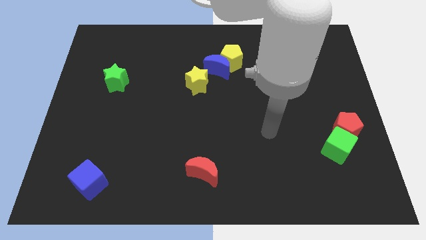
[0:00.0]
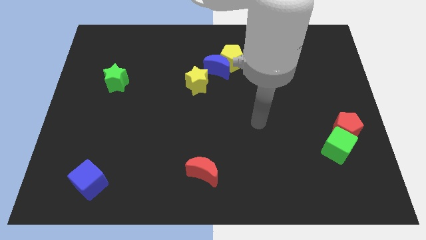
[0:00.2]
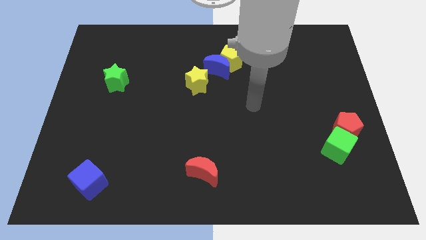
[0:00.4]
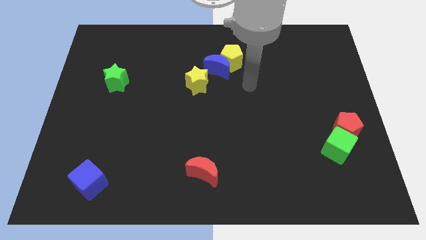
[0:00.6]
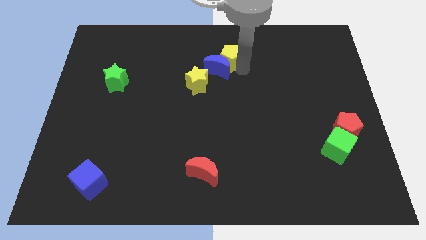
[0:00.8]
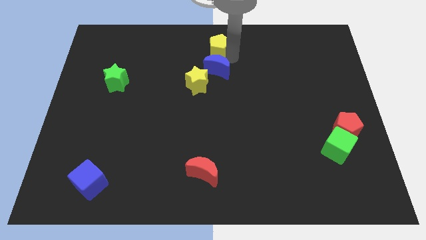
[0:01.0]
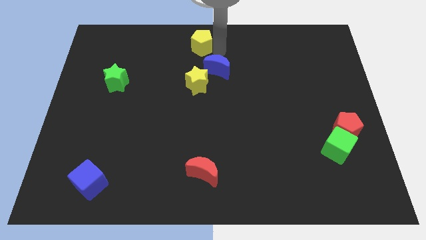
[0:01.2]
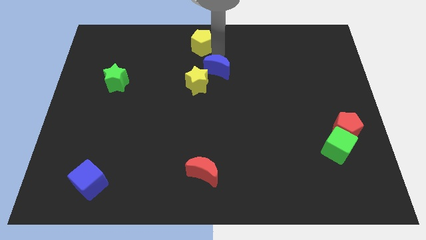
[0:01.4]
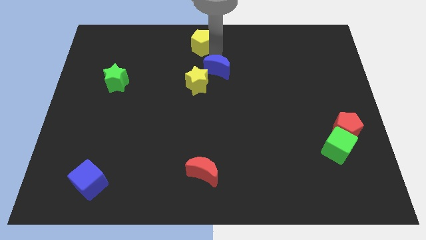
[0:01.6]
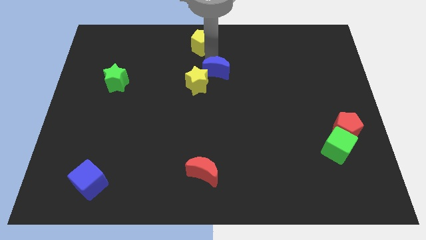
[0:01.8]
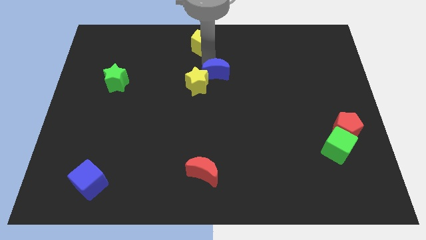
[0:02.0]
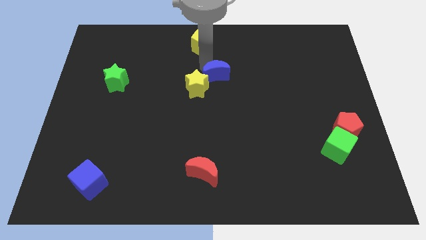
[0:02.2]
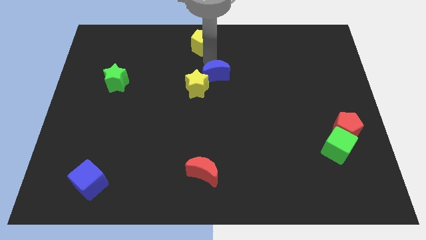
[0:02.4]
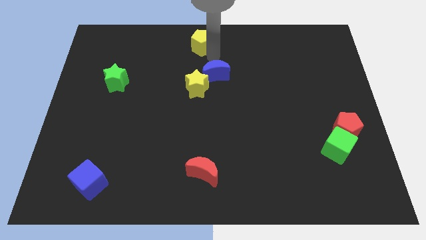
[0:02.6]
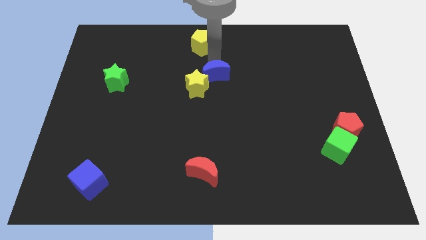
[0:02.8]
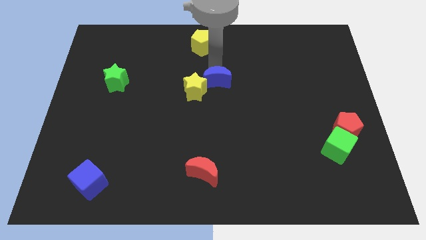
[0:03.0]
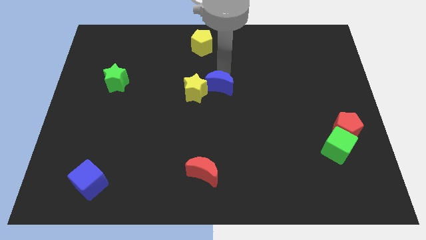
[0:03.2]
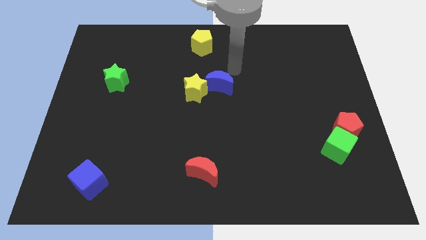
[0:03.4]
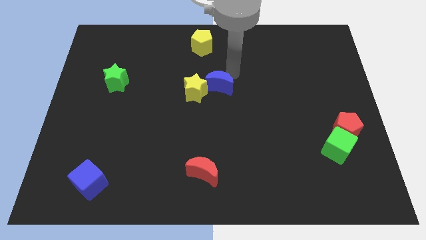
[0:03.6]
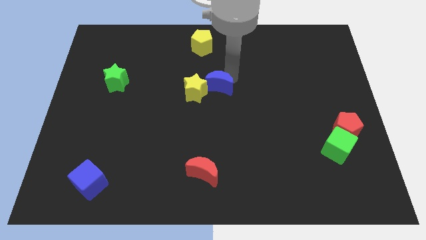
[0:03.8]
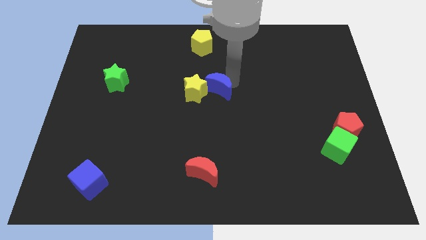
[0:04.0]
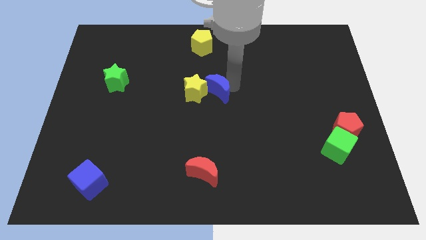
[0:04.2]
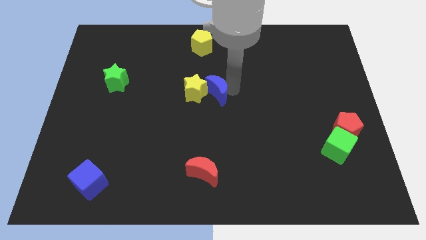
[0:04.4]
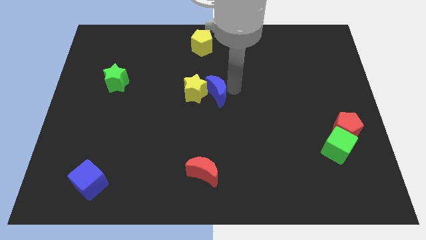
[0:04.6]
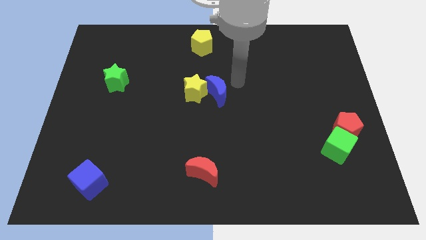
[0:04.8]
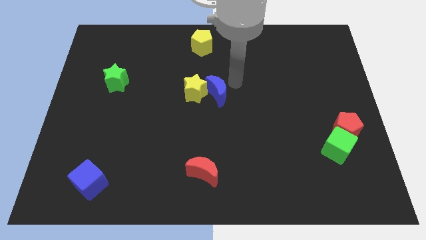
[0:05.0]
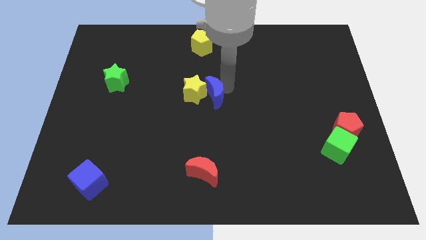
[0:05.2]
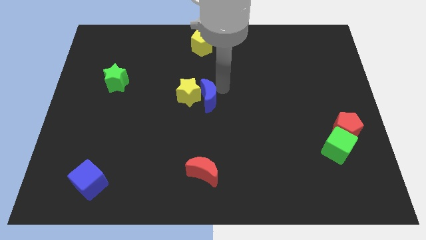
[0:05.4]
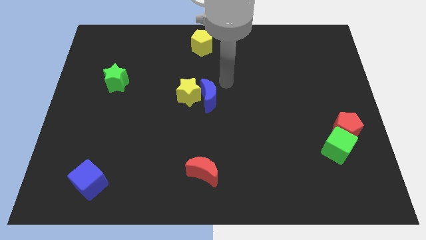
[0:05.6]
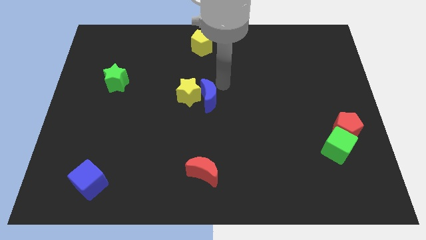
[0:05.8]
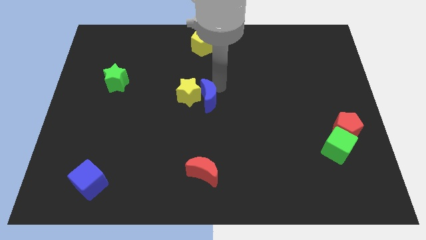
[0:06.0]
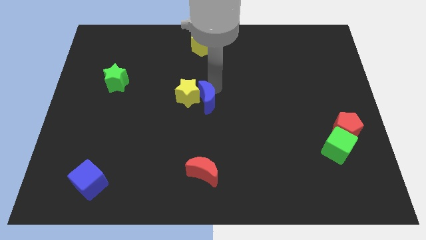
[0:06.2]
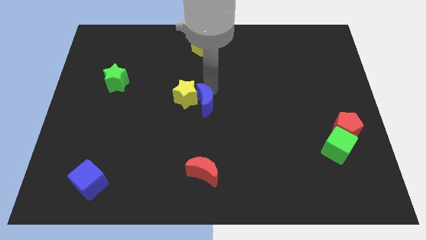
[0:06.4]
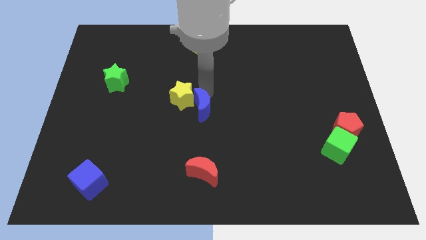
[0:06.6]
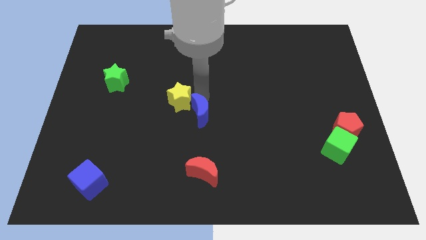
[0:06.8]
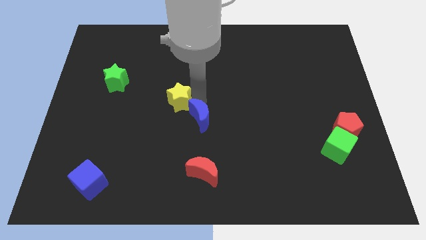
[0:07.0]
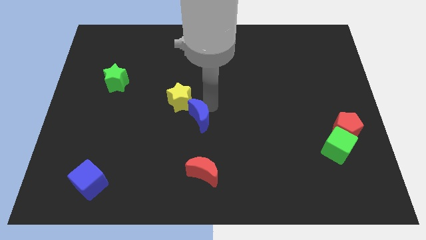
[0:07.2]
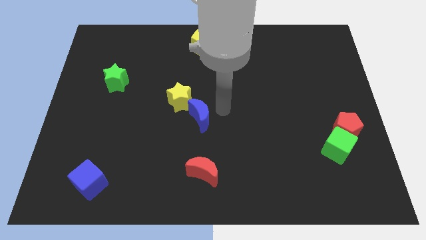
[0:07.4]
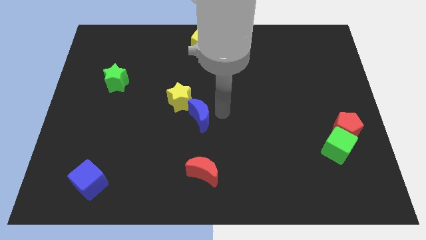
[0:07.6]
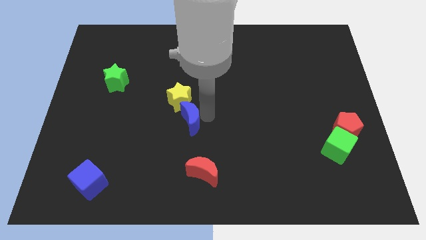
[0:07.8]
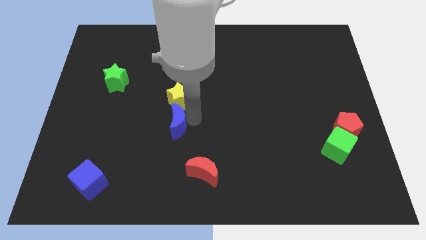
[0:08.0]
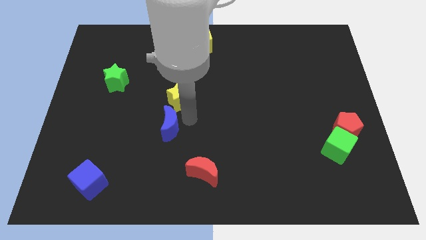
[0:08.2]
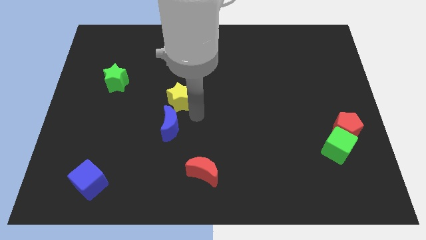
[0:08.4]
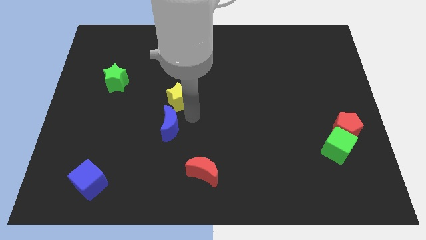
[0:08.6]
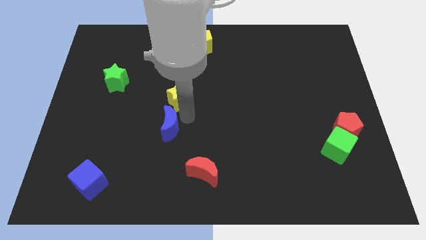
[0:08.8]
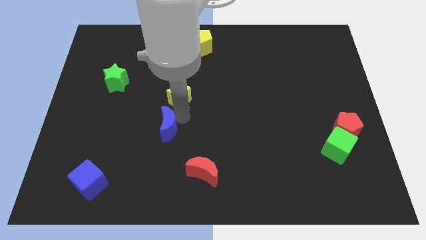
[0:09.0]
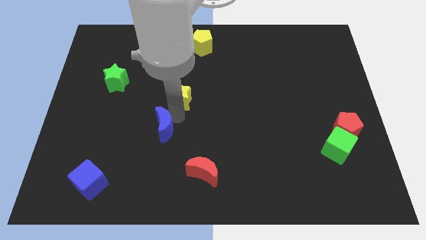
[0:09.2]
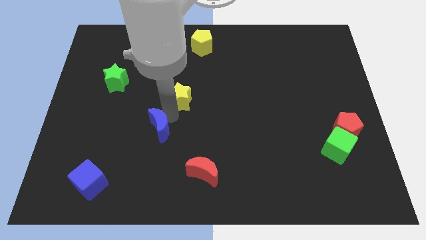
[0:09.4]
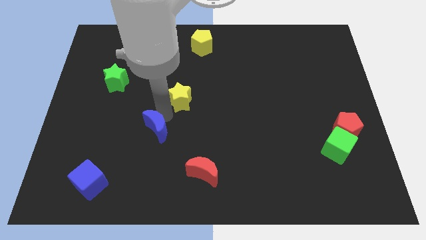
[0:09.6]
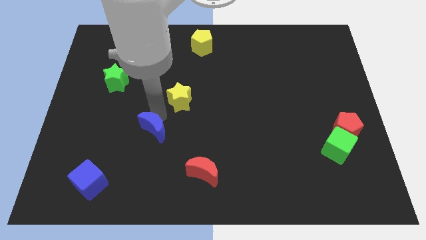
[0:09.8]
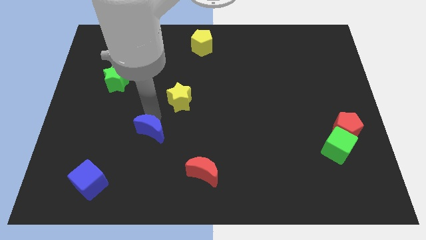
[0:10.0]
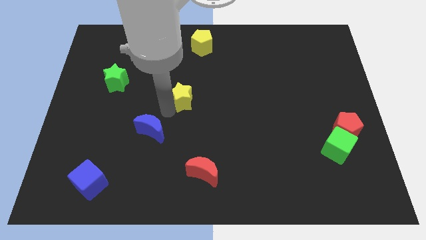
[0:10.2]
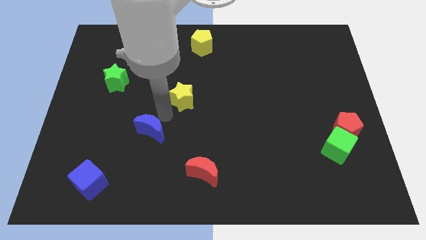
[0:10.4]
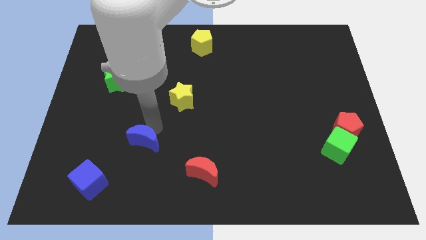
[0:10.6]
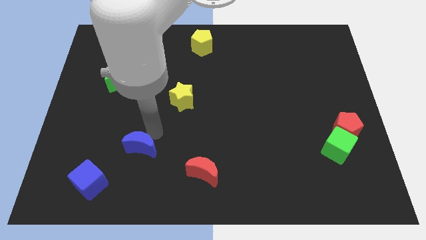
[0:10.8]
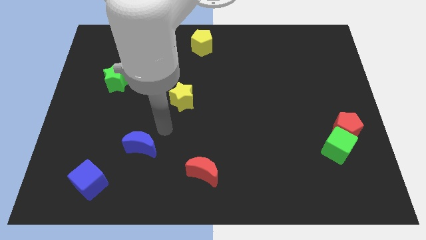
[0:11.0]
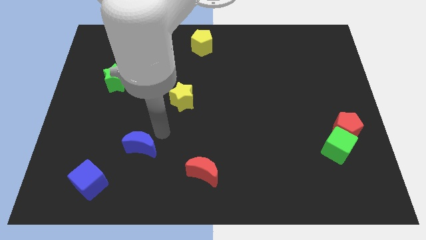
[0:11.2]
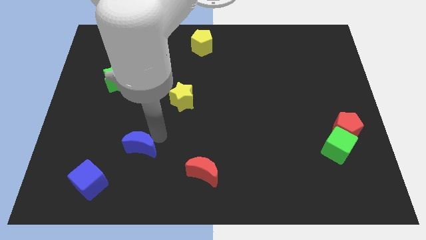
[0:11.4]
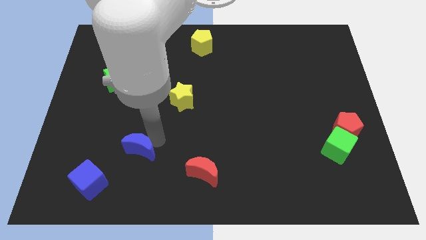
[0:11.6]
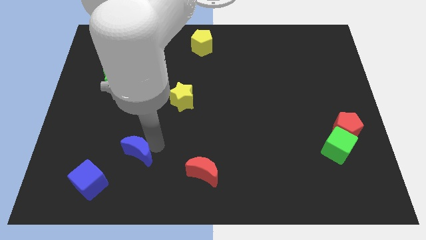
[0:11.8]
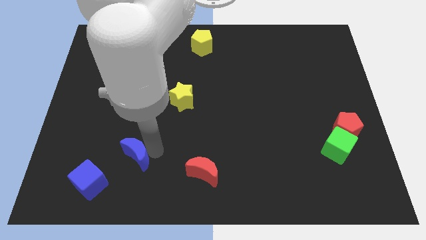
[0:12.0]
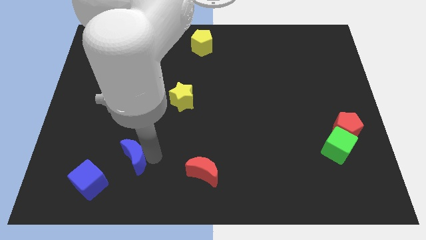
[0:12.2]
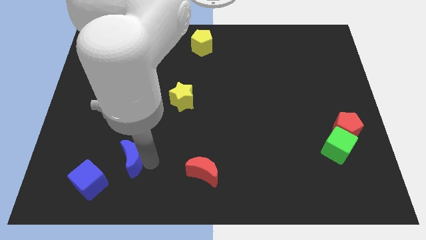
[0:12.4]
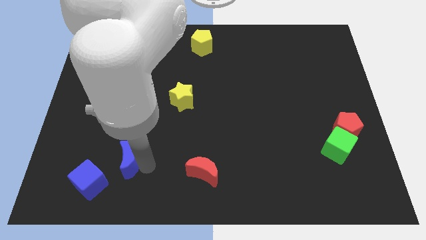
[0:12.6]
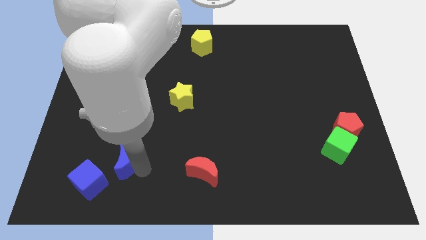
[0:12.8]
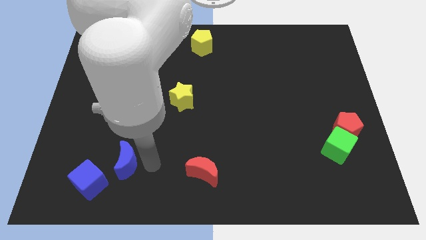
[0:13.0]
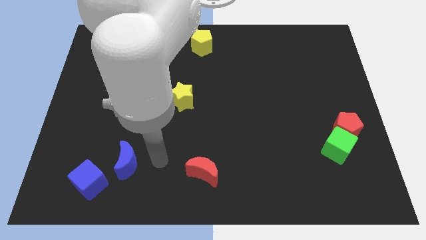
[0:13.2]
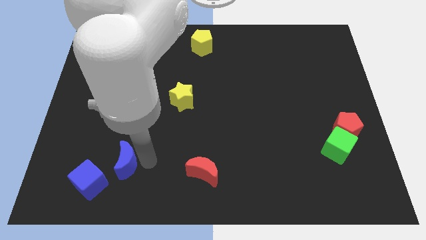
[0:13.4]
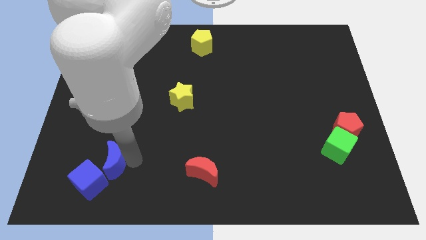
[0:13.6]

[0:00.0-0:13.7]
move the blue moon towards the blue cube

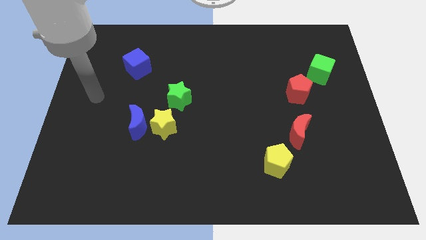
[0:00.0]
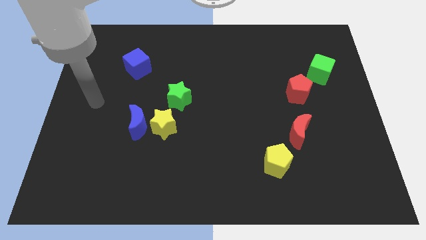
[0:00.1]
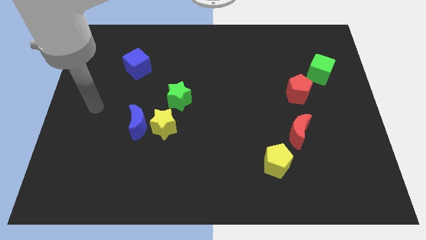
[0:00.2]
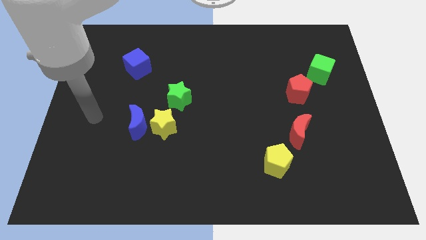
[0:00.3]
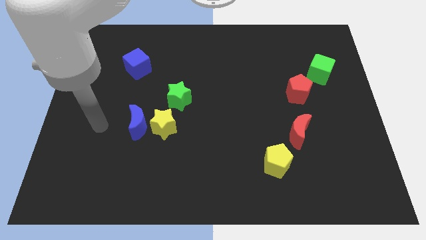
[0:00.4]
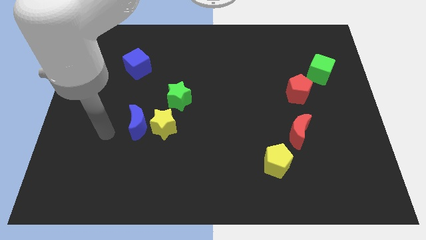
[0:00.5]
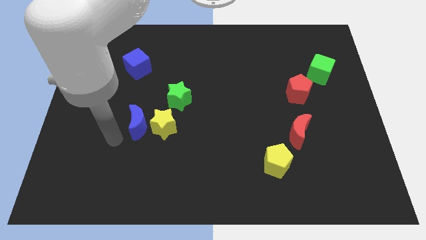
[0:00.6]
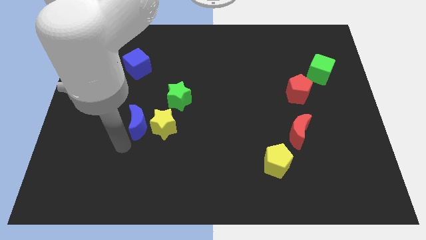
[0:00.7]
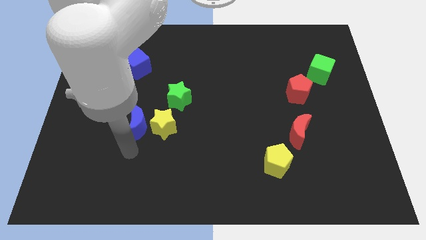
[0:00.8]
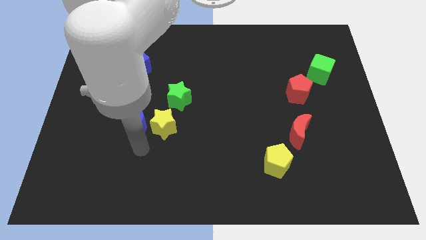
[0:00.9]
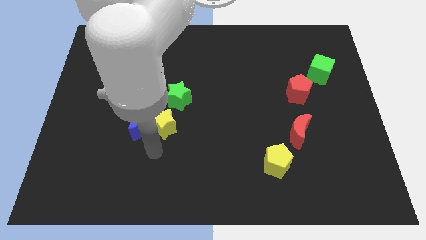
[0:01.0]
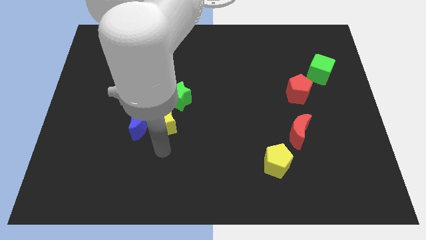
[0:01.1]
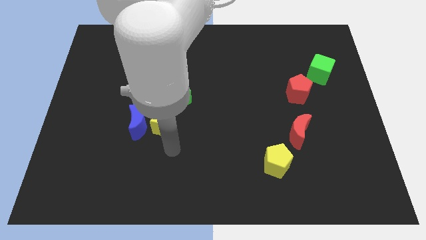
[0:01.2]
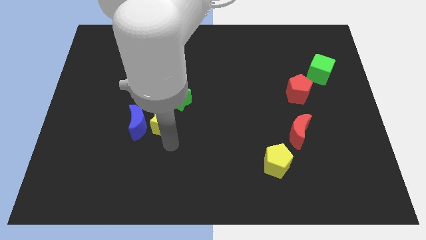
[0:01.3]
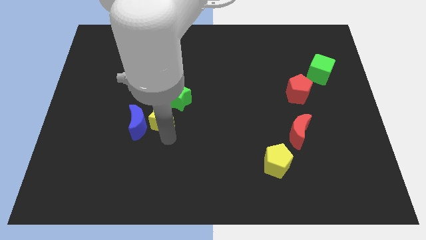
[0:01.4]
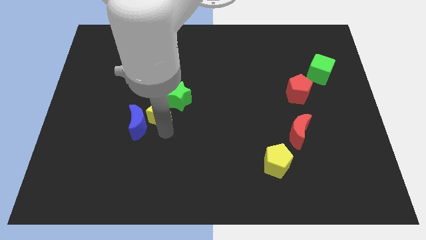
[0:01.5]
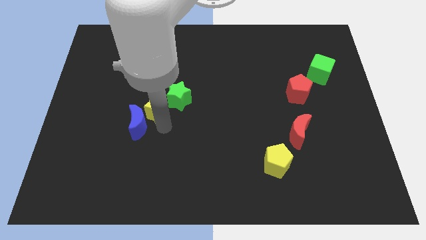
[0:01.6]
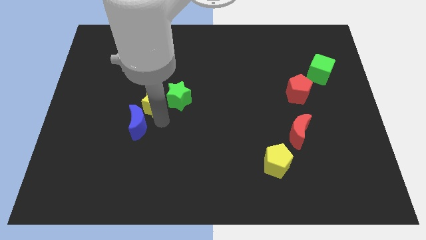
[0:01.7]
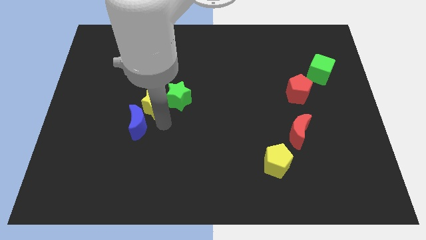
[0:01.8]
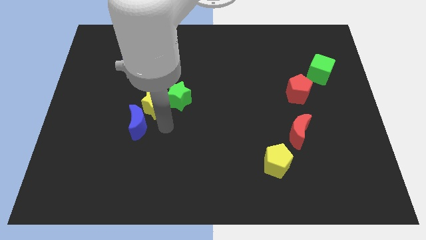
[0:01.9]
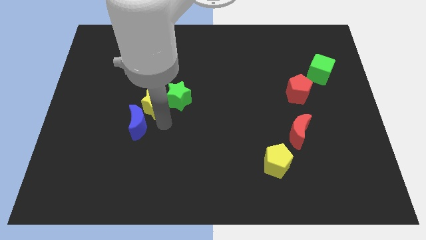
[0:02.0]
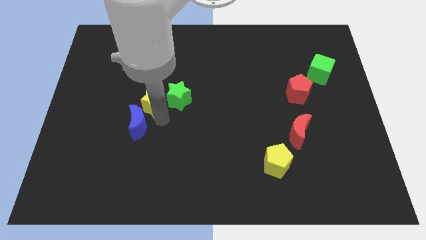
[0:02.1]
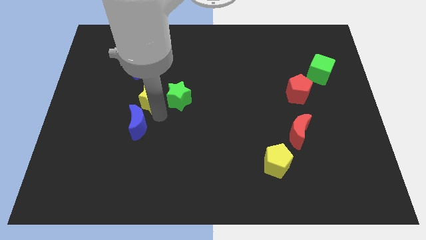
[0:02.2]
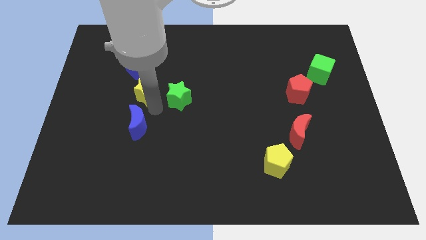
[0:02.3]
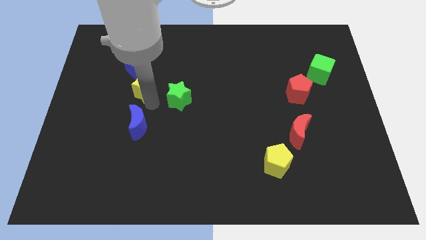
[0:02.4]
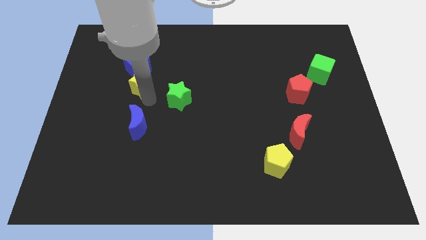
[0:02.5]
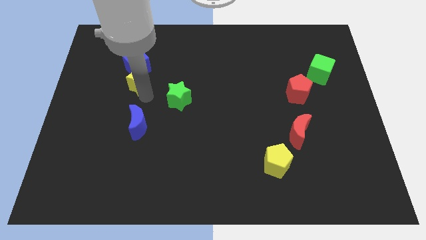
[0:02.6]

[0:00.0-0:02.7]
put the yellow star towards the blue cube
